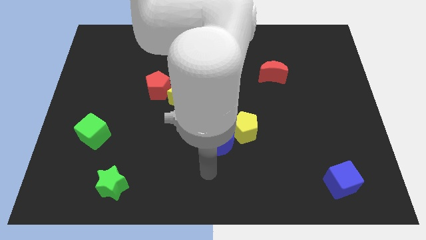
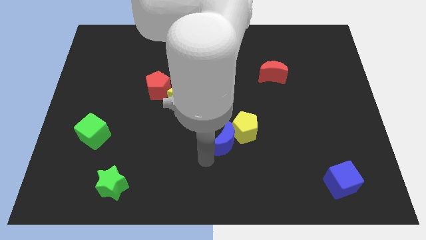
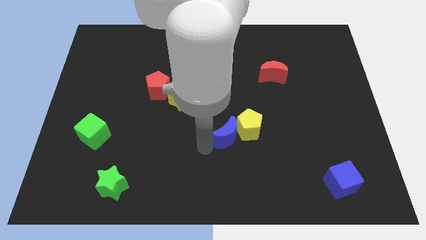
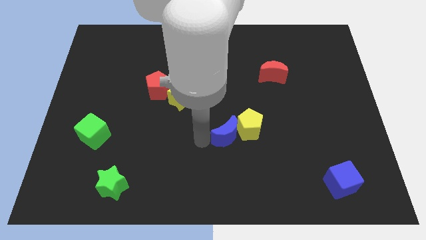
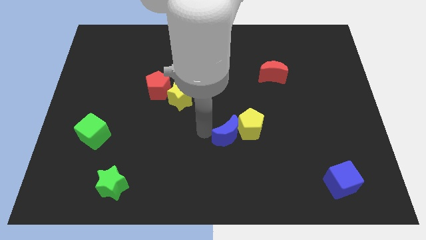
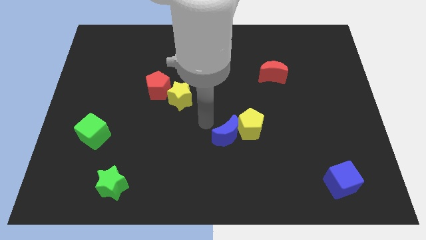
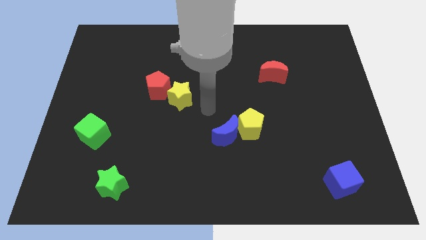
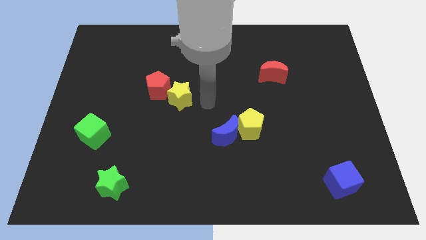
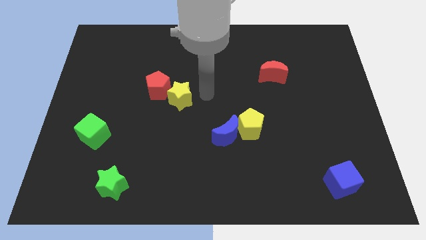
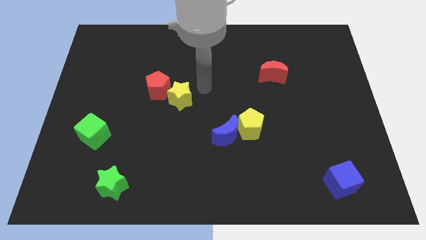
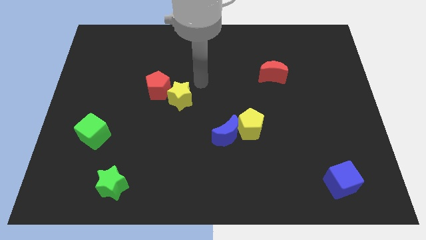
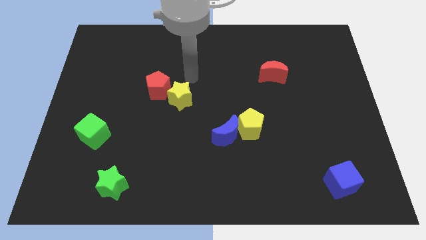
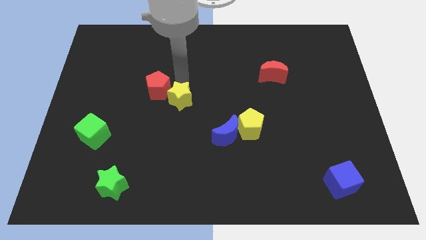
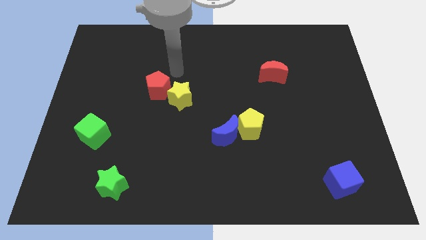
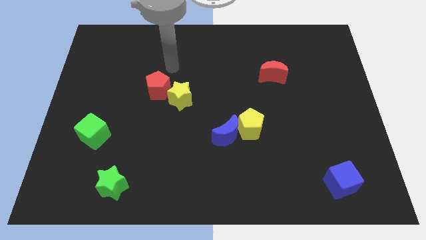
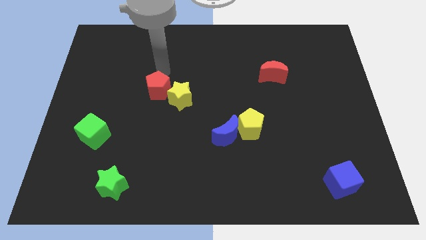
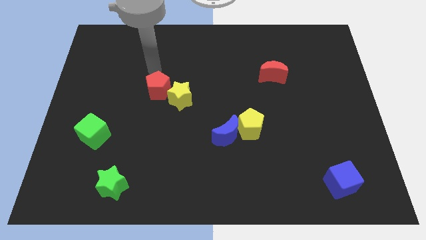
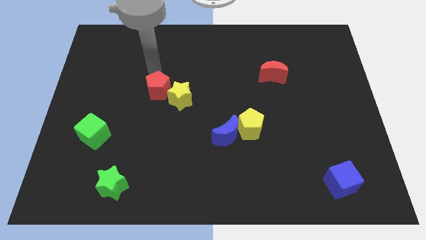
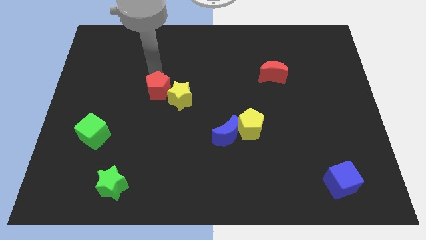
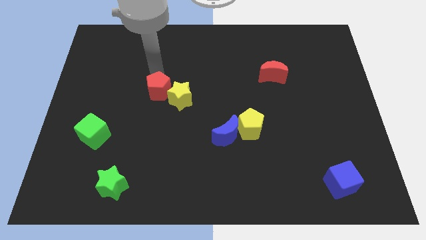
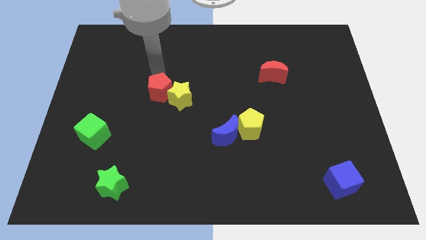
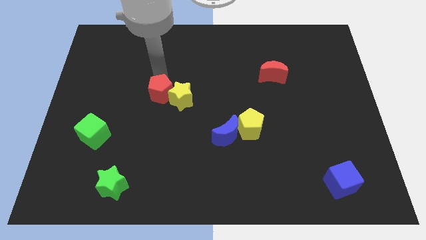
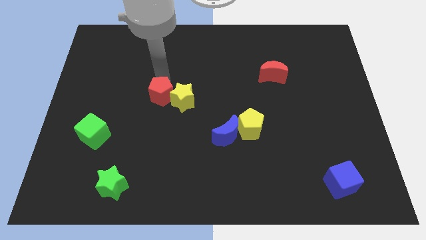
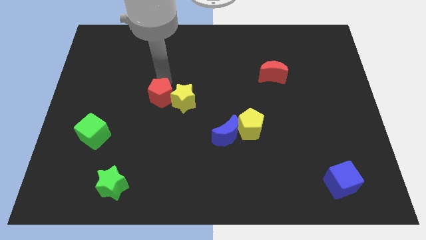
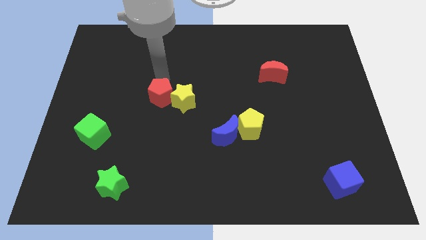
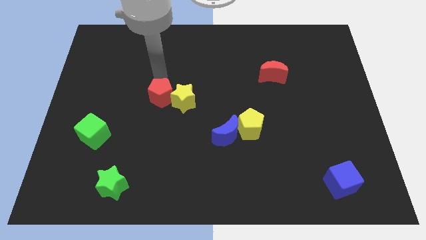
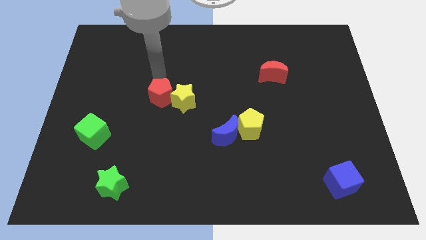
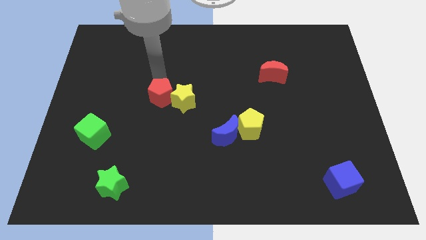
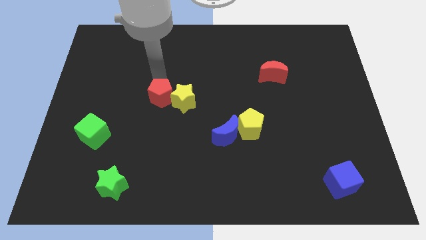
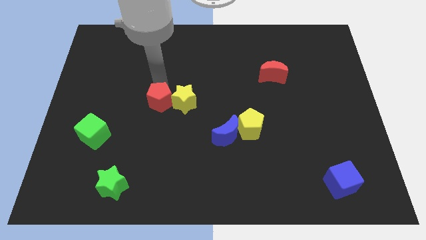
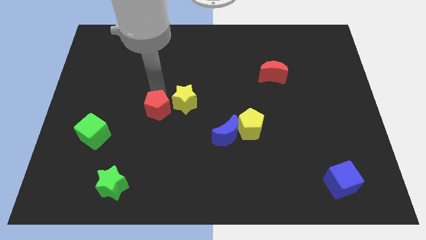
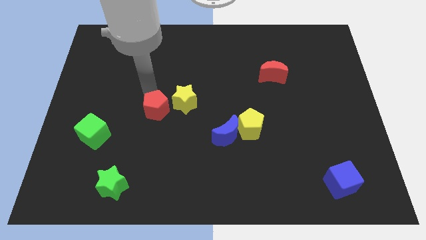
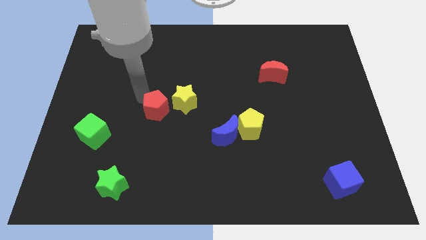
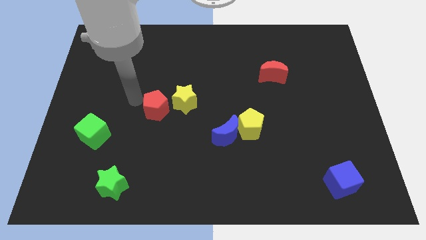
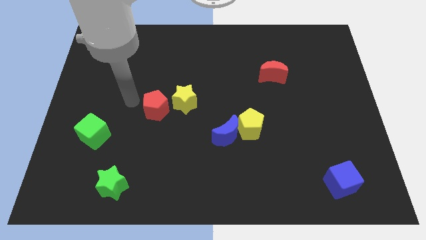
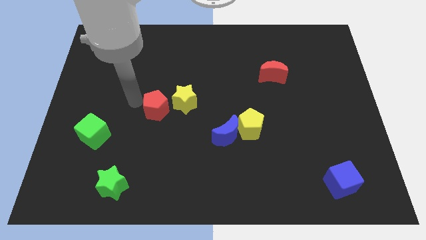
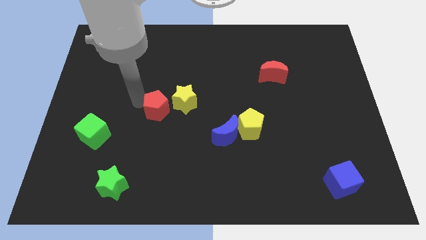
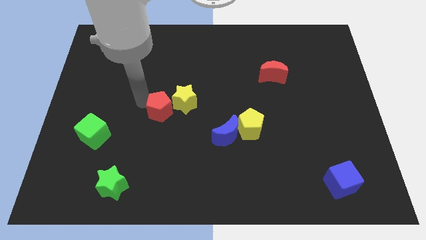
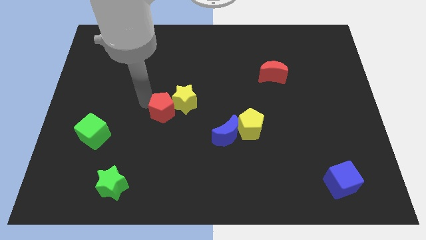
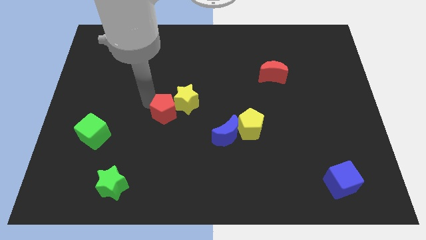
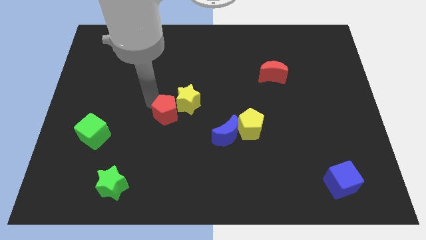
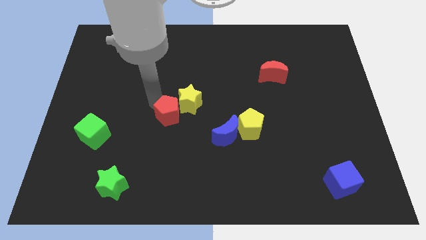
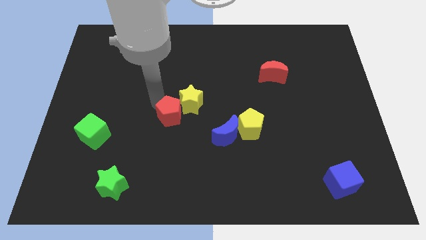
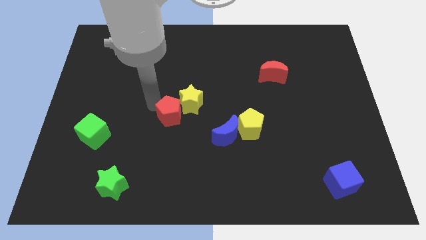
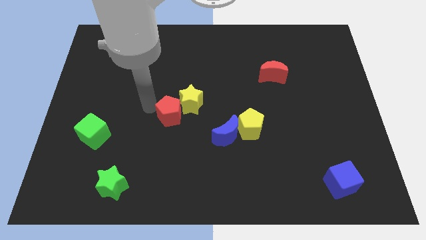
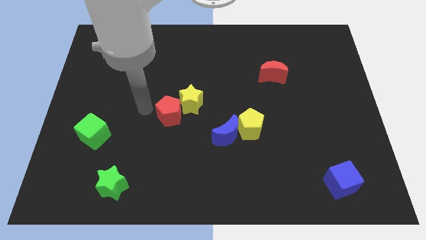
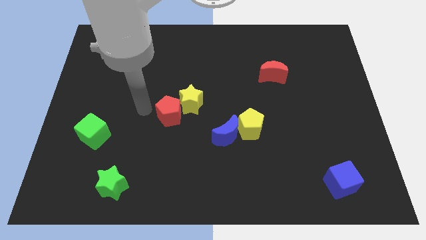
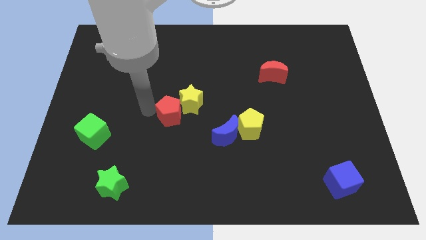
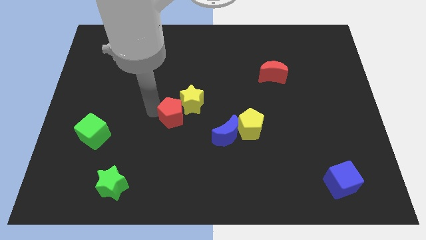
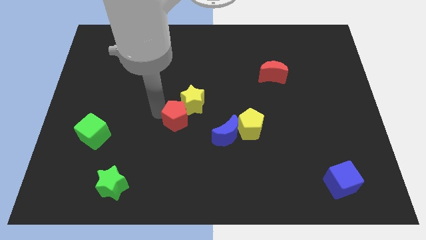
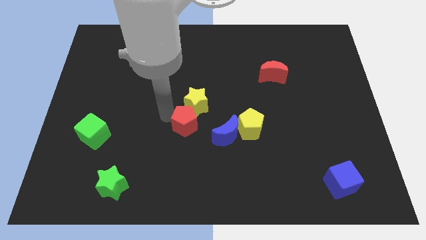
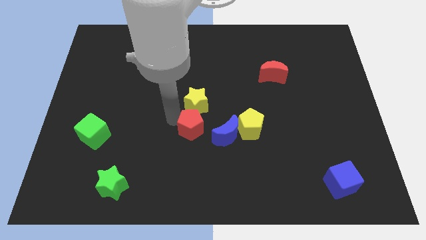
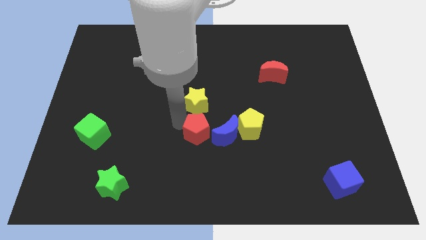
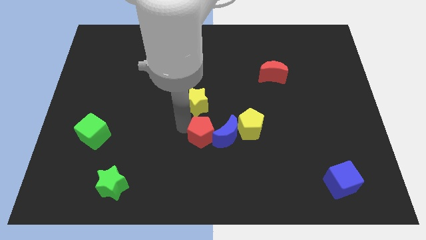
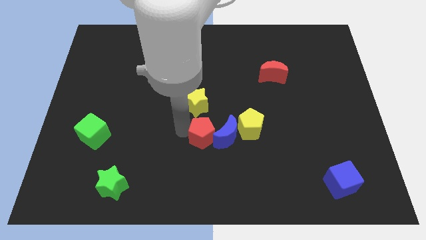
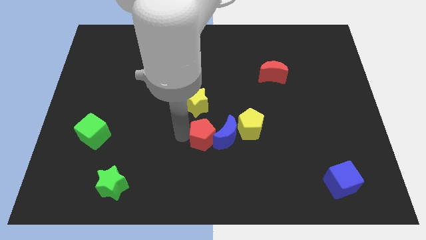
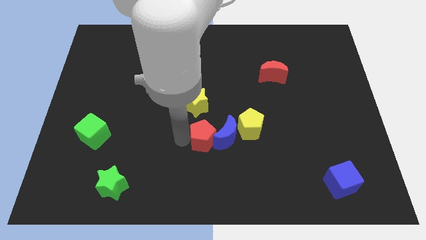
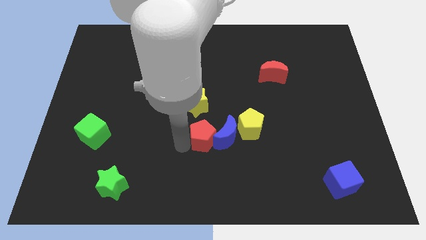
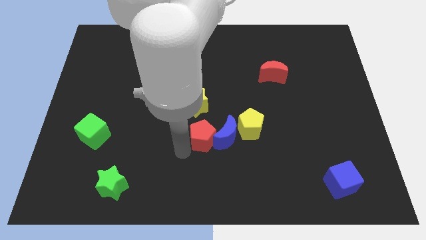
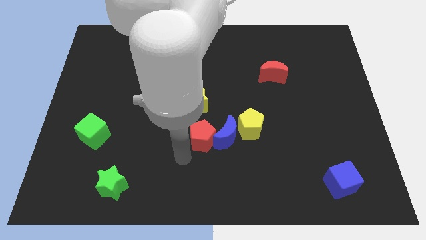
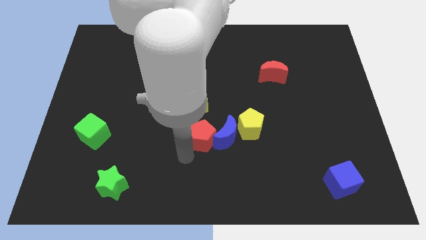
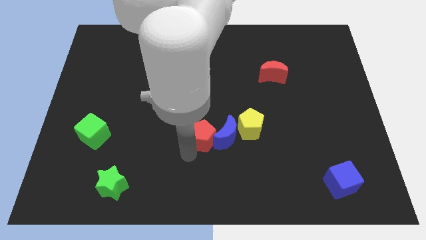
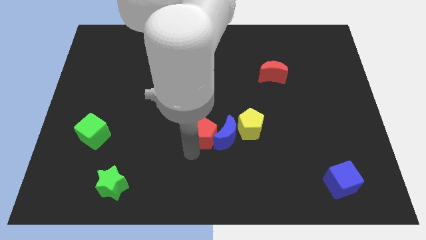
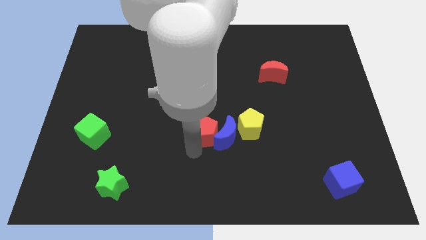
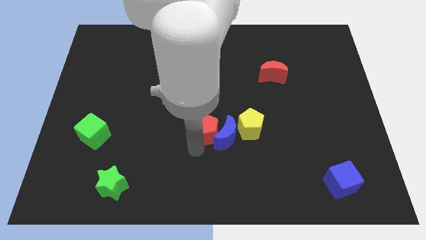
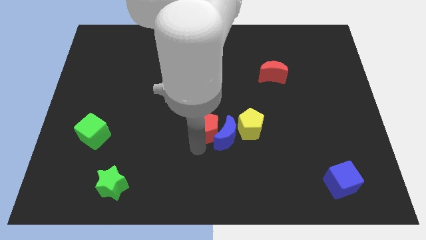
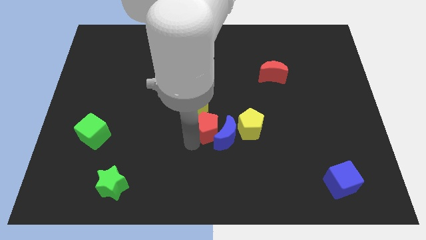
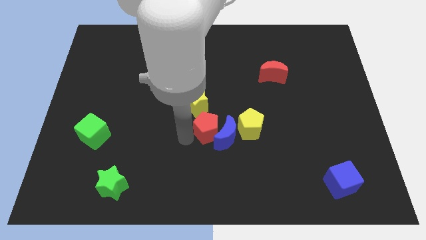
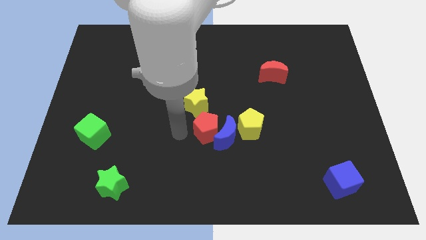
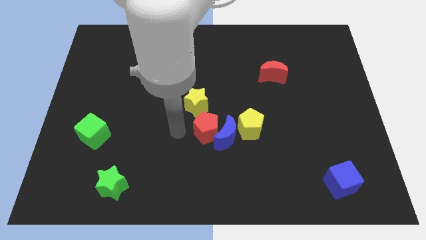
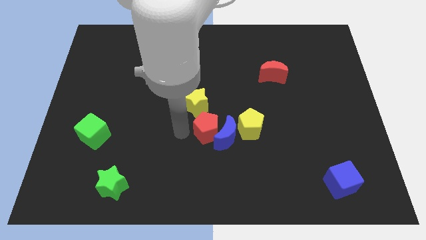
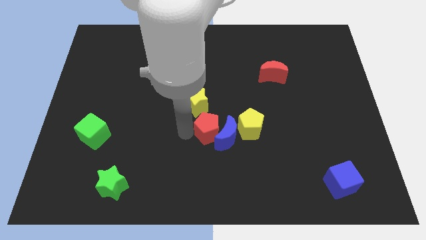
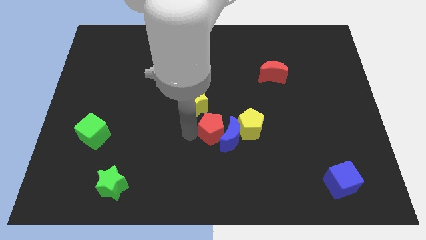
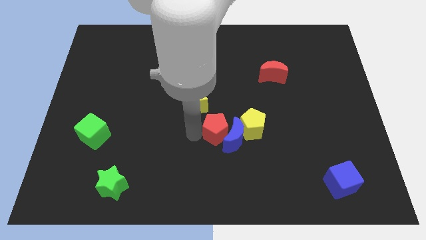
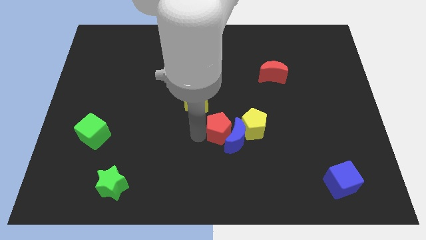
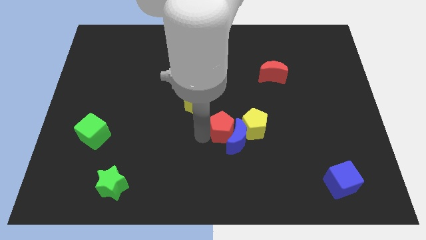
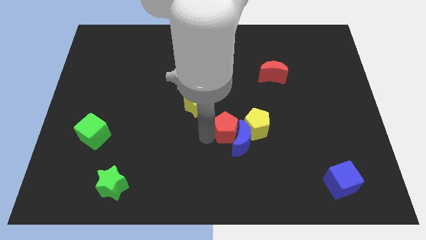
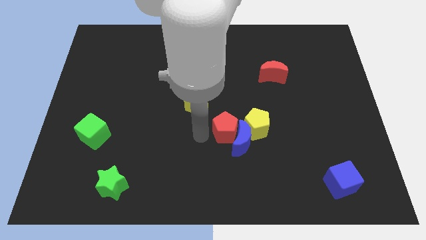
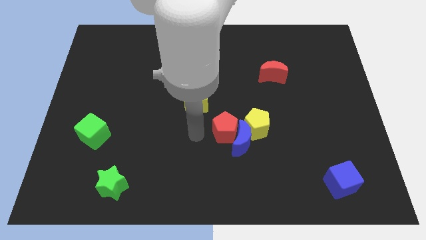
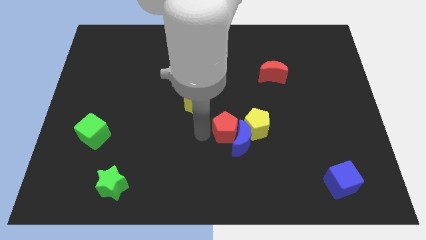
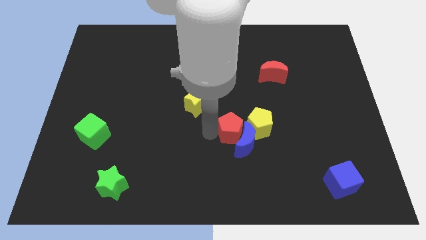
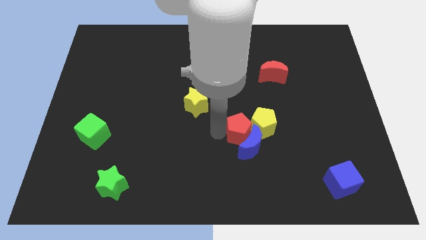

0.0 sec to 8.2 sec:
move the red pentagon to the yellow pentagon
